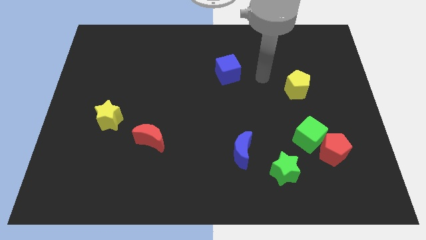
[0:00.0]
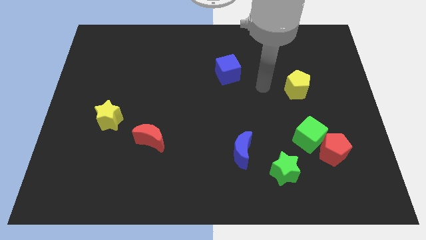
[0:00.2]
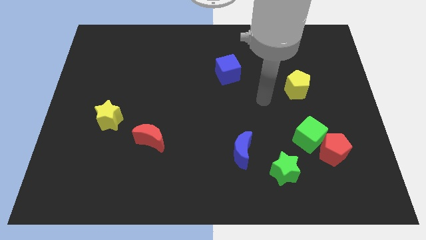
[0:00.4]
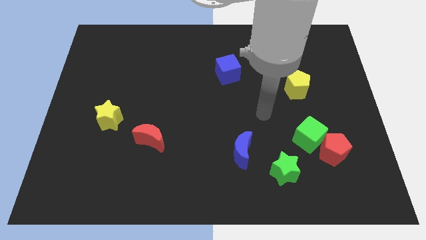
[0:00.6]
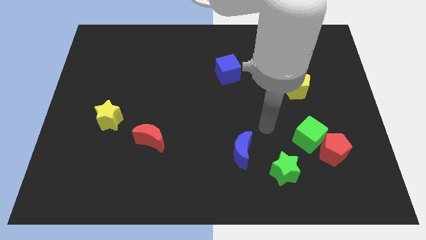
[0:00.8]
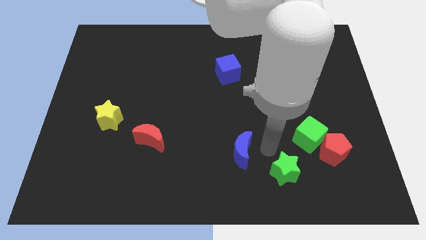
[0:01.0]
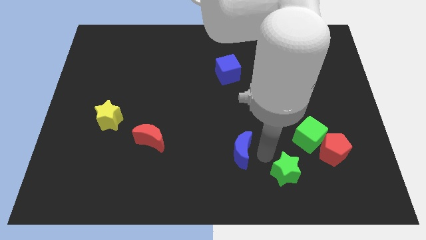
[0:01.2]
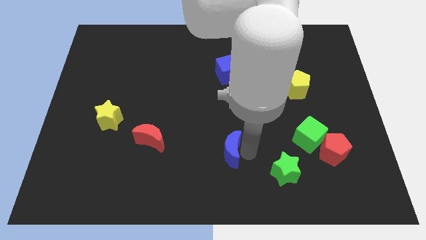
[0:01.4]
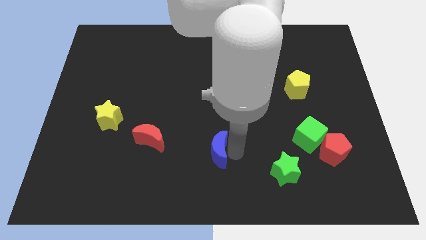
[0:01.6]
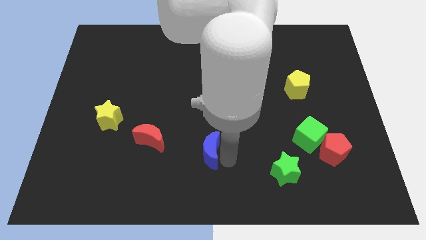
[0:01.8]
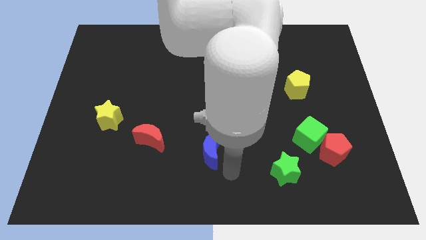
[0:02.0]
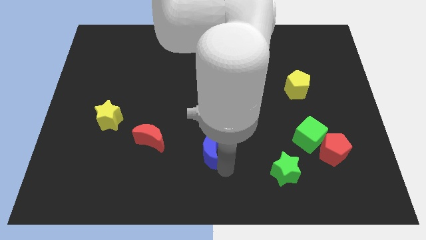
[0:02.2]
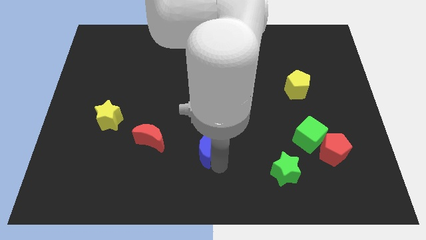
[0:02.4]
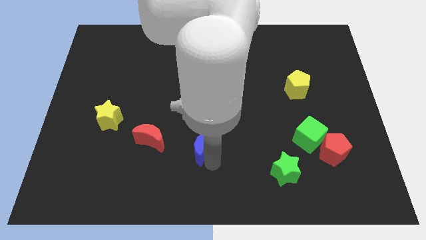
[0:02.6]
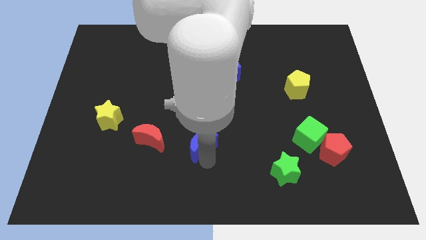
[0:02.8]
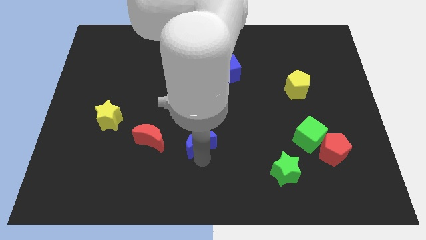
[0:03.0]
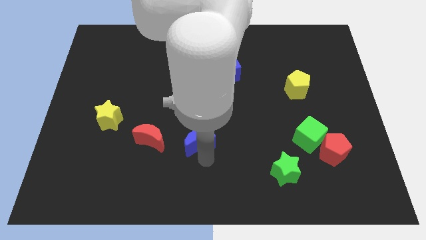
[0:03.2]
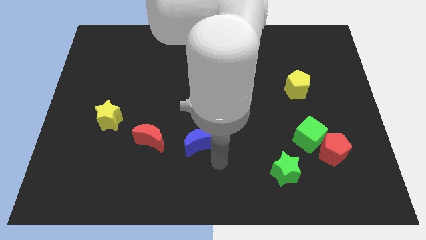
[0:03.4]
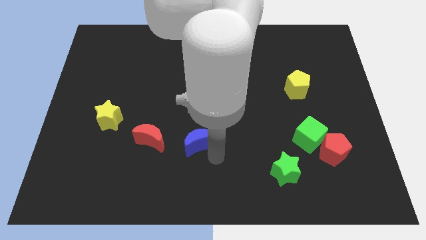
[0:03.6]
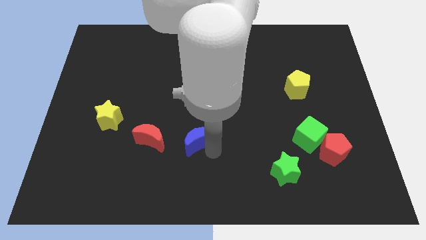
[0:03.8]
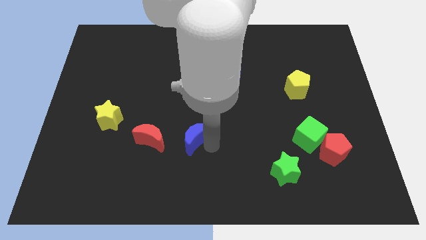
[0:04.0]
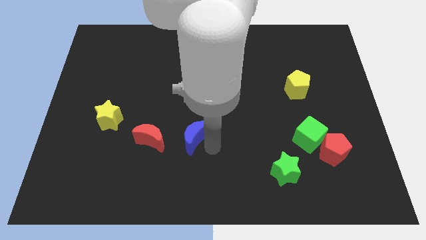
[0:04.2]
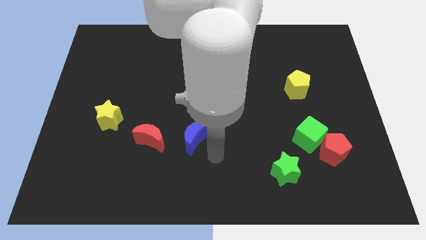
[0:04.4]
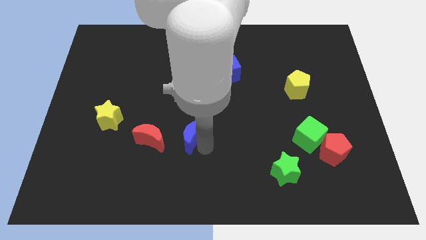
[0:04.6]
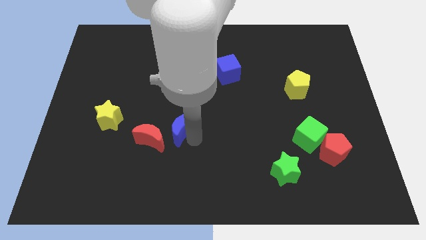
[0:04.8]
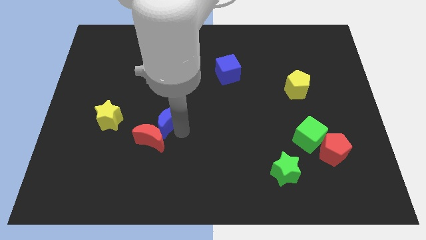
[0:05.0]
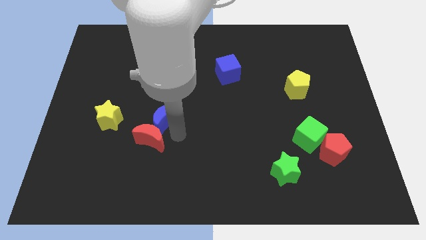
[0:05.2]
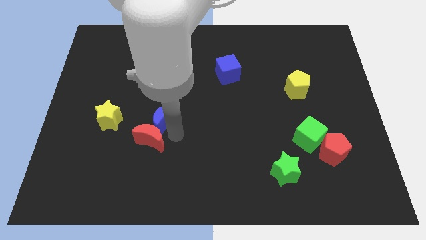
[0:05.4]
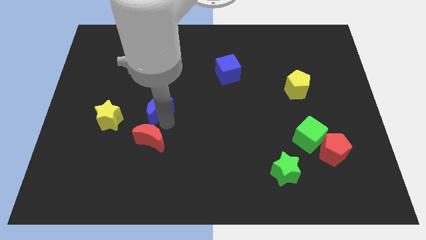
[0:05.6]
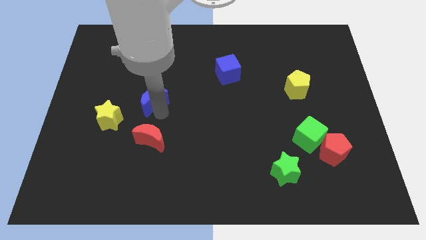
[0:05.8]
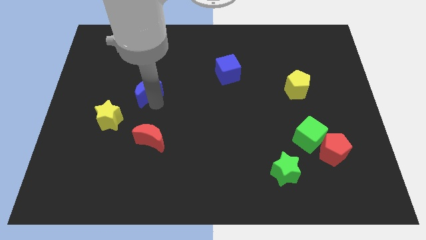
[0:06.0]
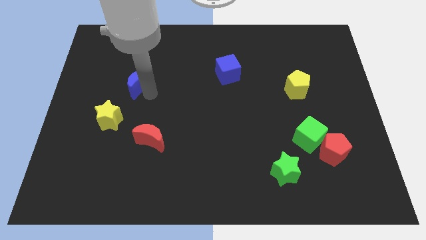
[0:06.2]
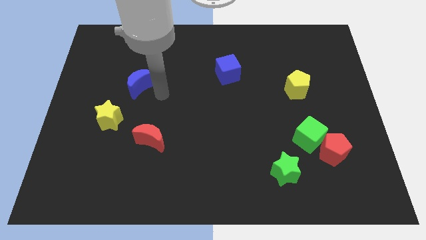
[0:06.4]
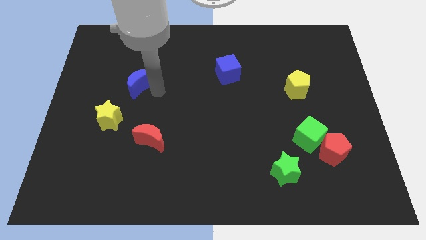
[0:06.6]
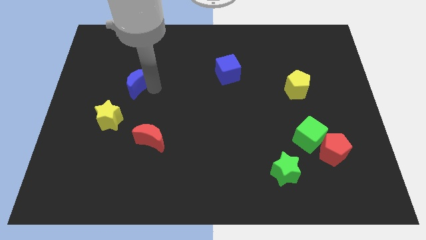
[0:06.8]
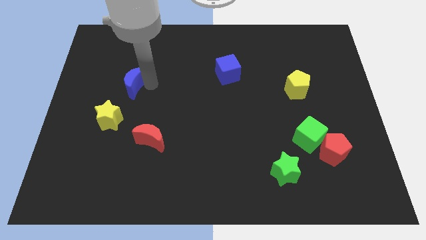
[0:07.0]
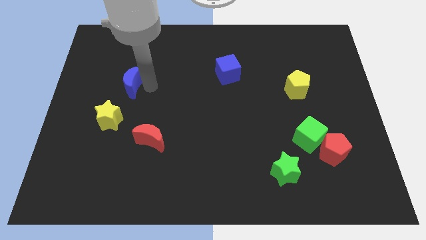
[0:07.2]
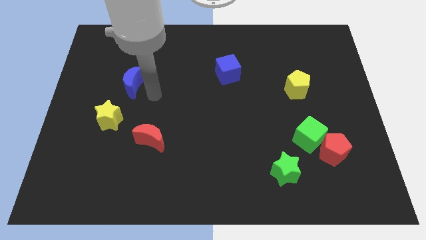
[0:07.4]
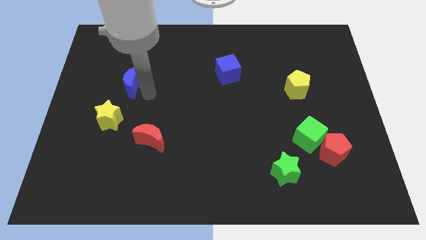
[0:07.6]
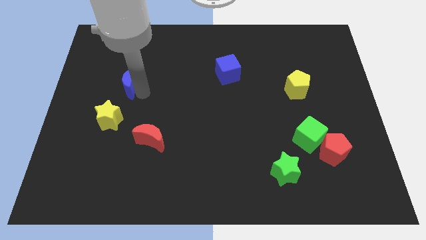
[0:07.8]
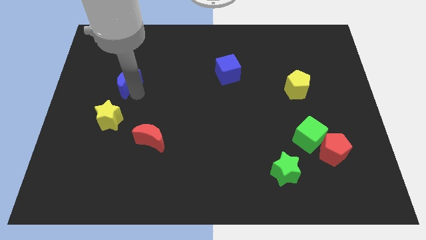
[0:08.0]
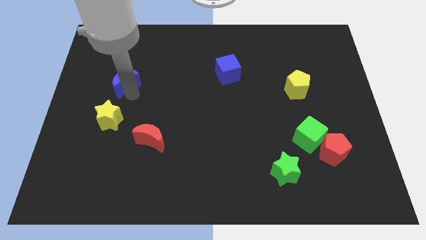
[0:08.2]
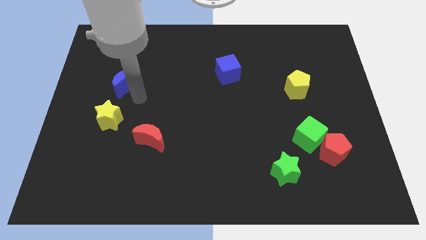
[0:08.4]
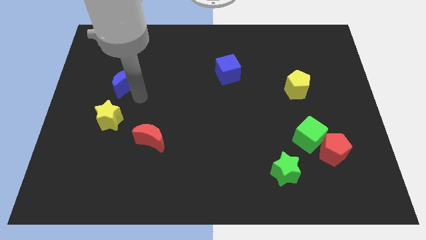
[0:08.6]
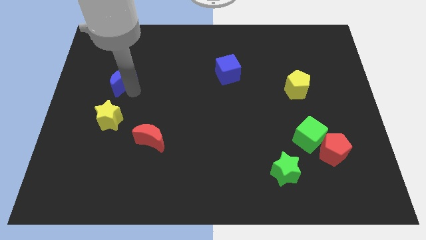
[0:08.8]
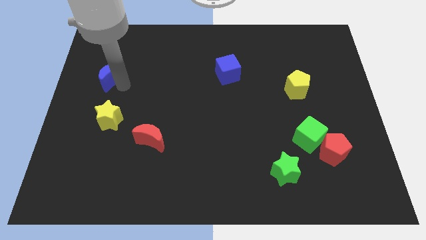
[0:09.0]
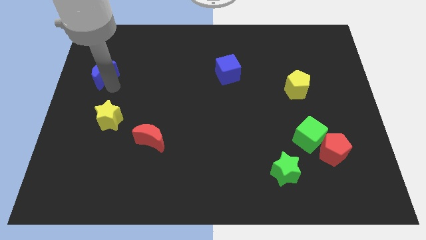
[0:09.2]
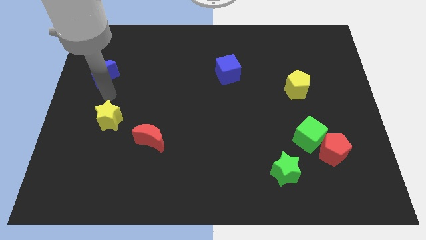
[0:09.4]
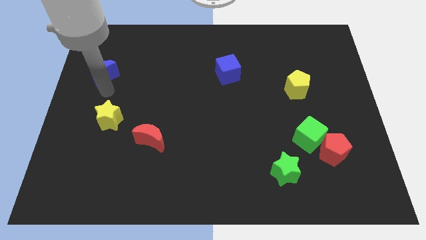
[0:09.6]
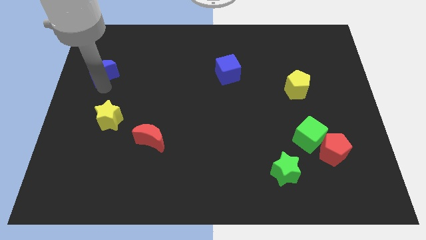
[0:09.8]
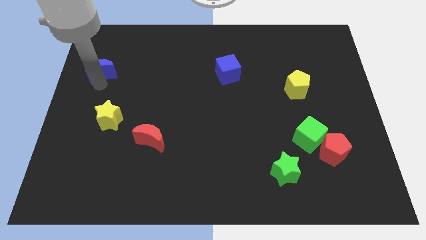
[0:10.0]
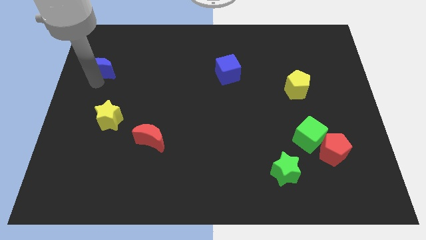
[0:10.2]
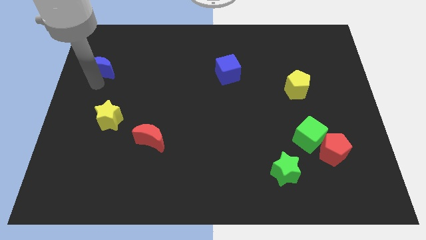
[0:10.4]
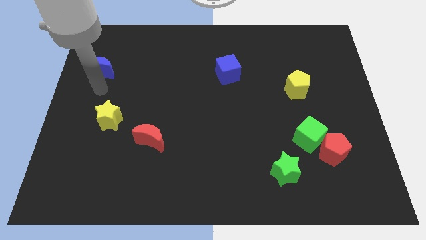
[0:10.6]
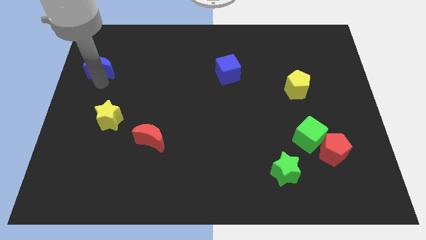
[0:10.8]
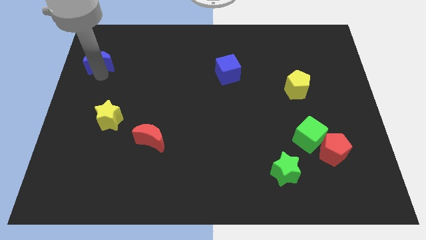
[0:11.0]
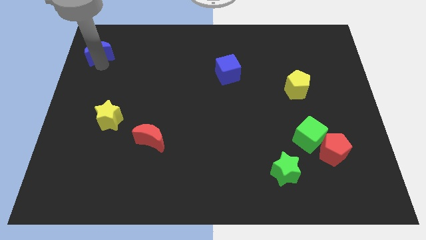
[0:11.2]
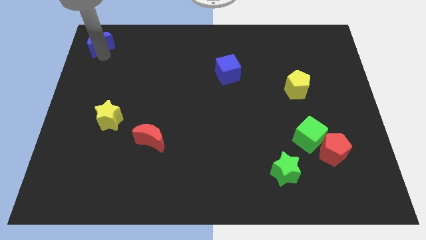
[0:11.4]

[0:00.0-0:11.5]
move the blue moon to the top left of the board

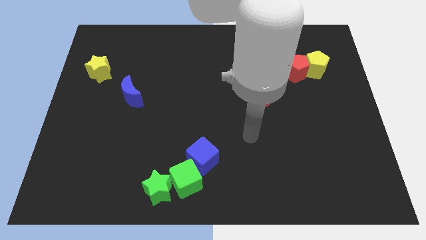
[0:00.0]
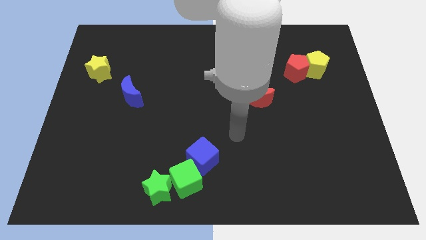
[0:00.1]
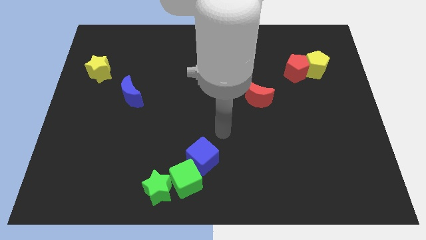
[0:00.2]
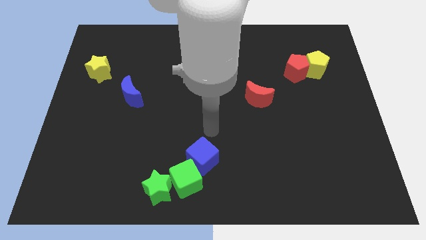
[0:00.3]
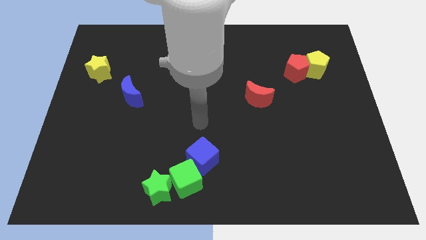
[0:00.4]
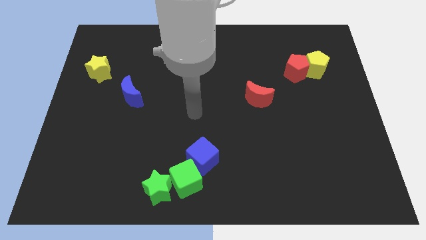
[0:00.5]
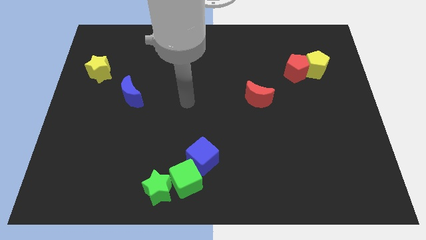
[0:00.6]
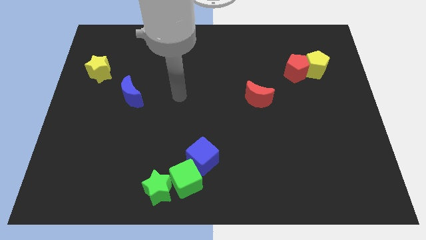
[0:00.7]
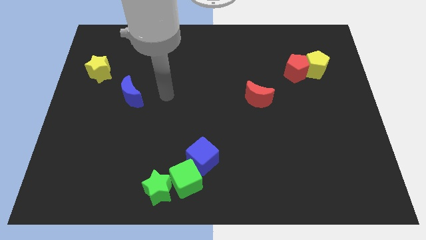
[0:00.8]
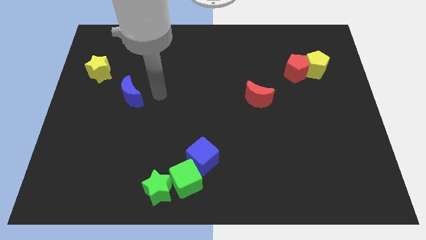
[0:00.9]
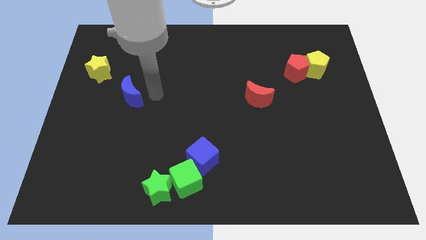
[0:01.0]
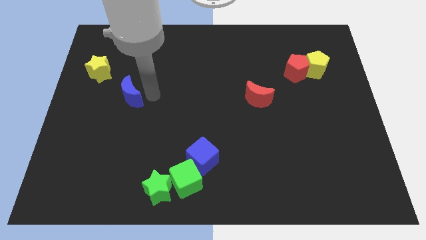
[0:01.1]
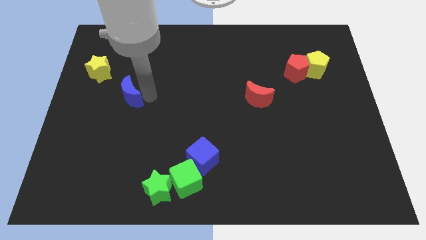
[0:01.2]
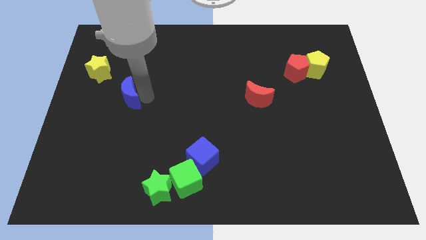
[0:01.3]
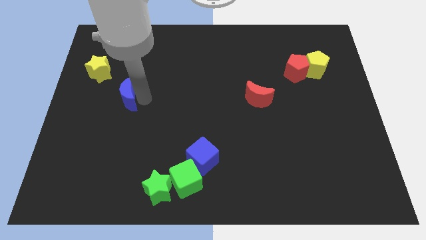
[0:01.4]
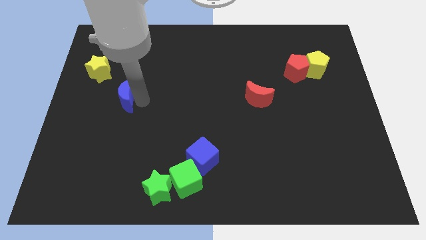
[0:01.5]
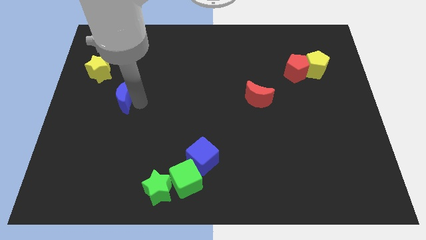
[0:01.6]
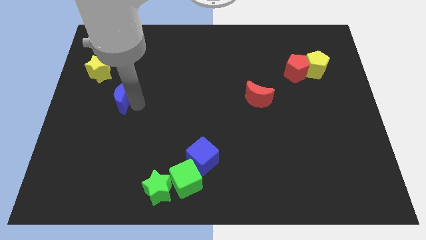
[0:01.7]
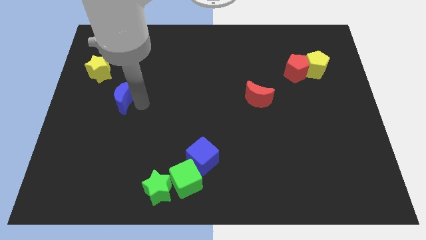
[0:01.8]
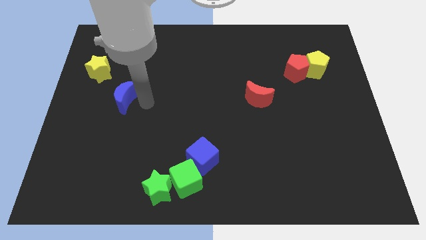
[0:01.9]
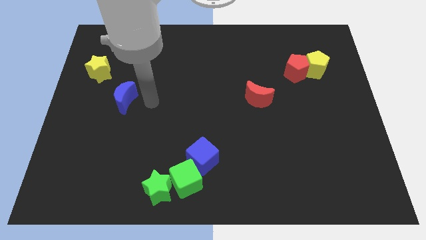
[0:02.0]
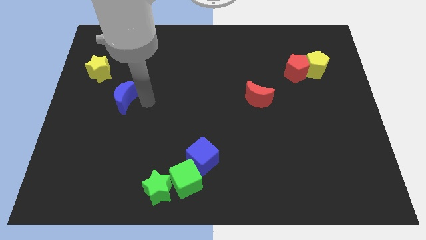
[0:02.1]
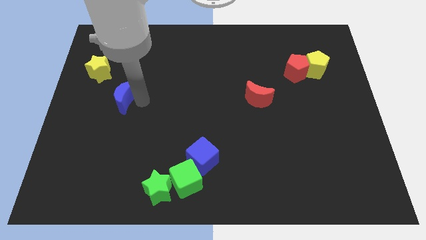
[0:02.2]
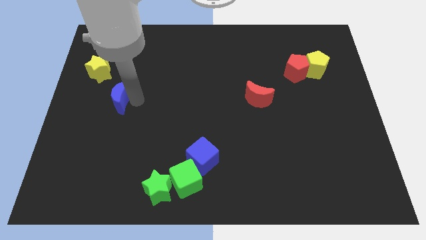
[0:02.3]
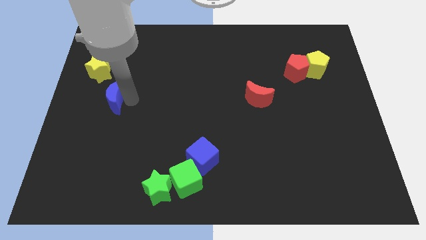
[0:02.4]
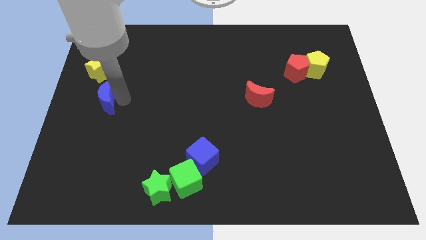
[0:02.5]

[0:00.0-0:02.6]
put the blue moon to the center left
